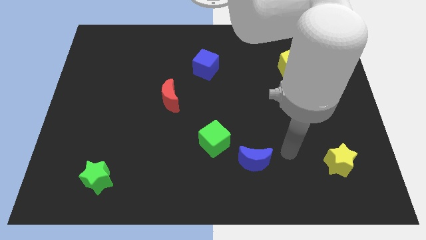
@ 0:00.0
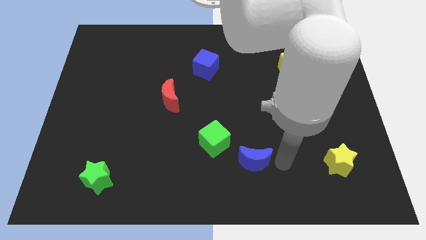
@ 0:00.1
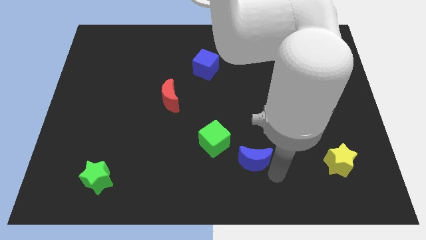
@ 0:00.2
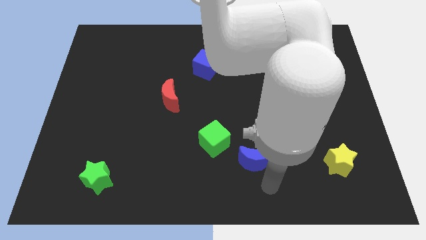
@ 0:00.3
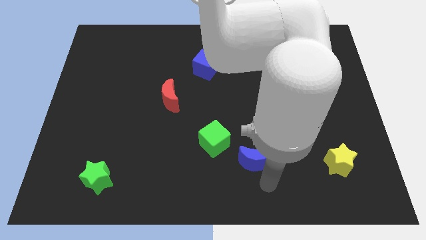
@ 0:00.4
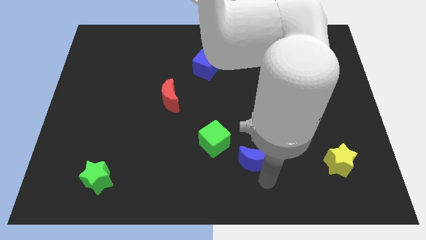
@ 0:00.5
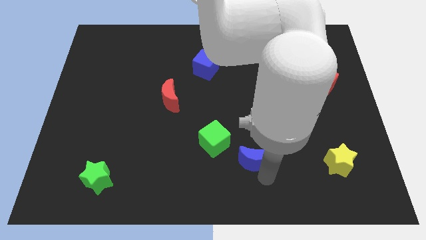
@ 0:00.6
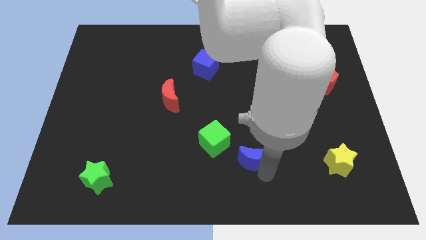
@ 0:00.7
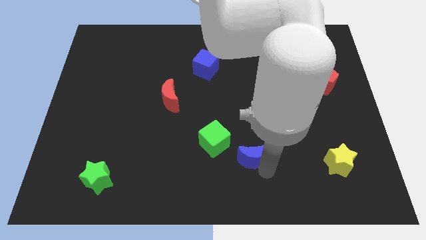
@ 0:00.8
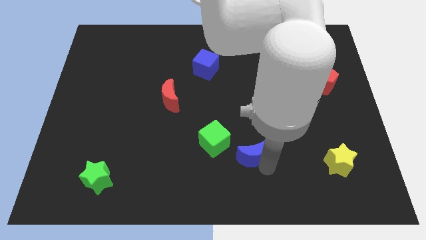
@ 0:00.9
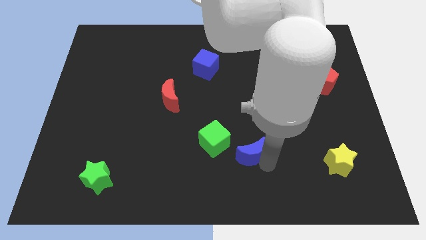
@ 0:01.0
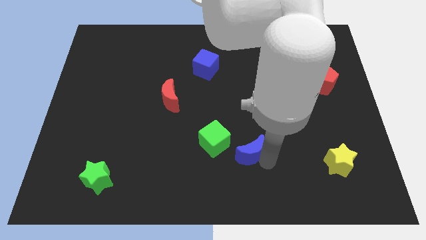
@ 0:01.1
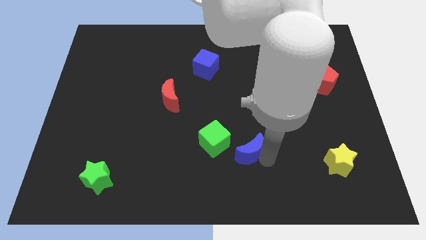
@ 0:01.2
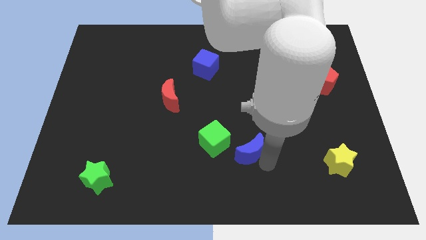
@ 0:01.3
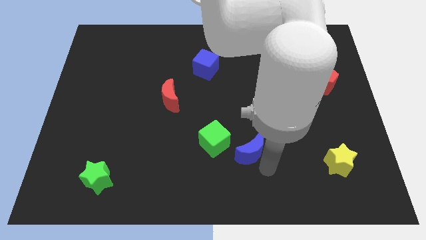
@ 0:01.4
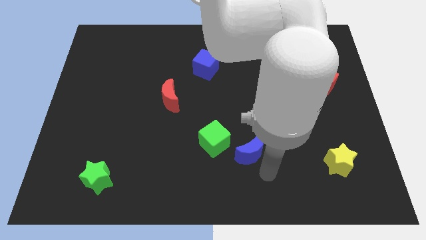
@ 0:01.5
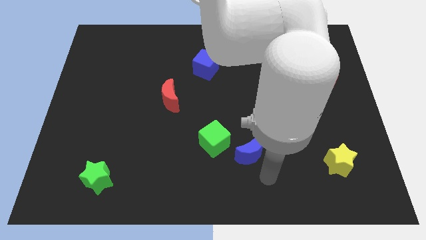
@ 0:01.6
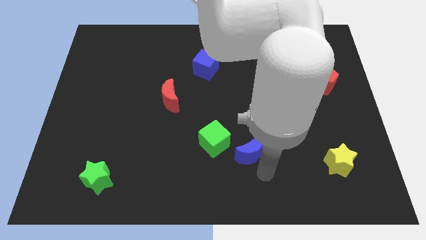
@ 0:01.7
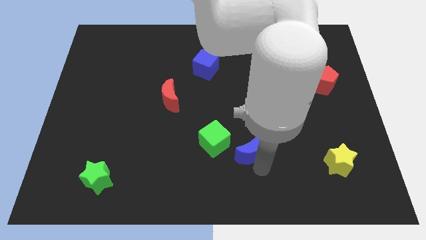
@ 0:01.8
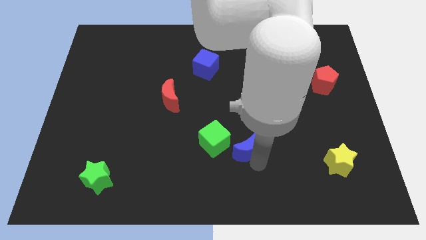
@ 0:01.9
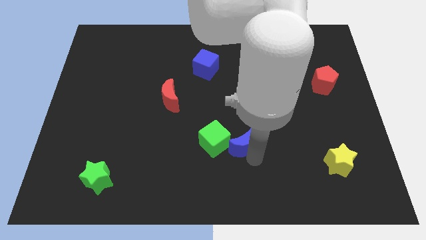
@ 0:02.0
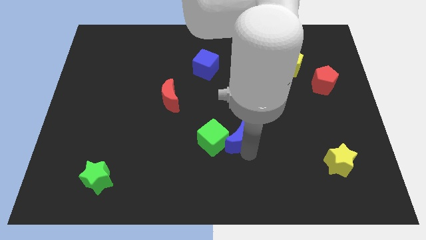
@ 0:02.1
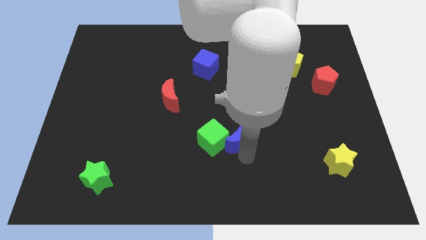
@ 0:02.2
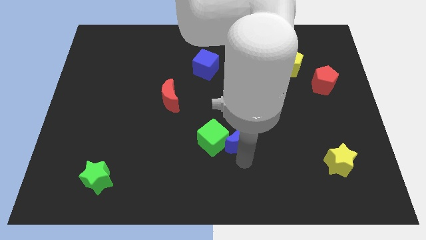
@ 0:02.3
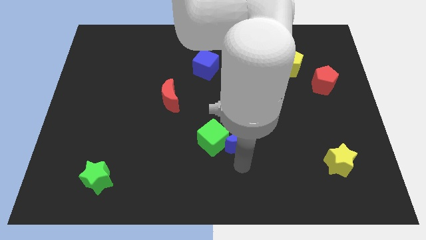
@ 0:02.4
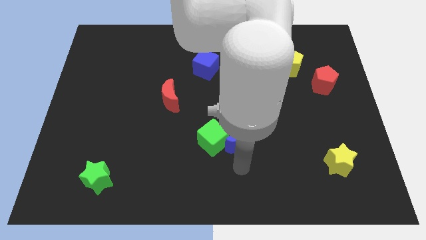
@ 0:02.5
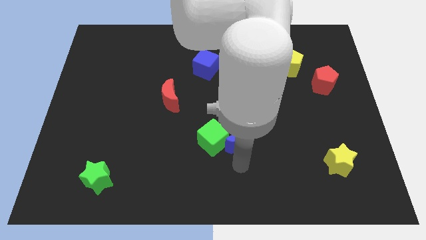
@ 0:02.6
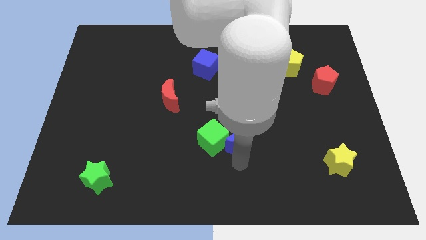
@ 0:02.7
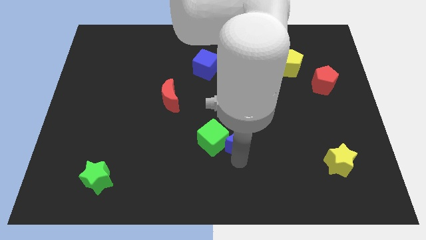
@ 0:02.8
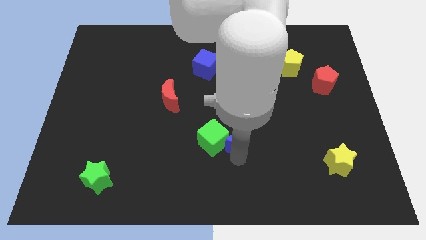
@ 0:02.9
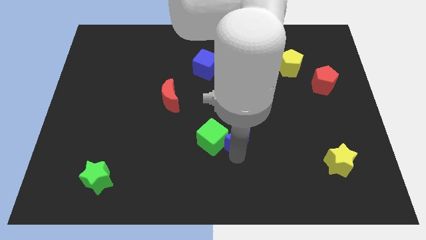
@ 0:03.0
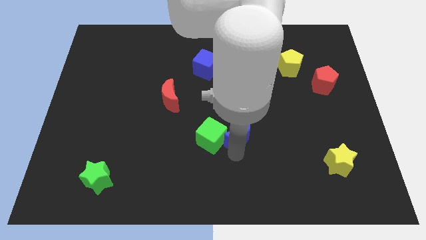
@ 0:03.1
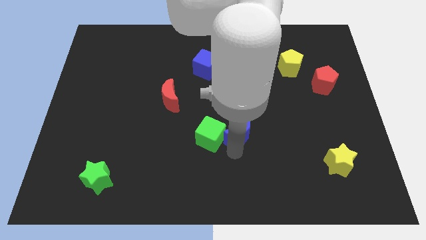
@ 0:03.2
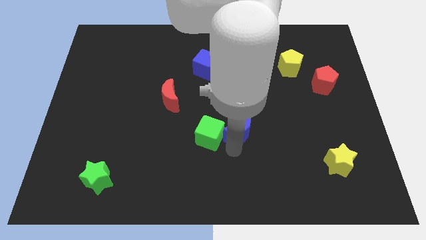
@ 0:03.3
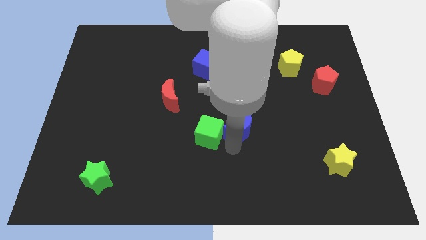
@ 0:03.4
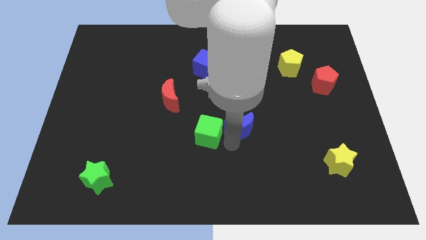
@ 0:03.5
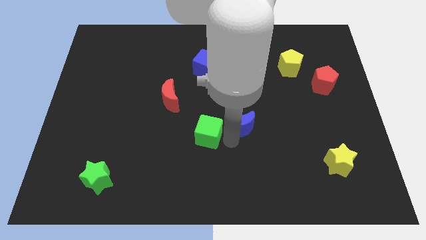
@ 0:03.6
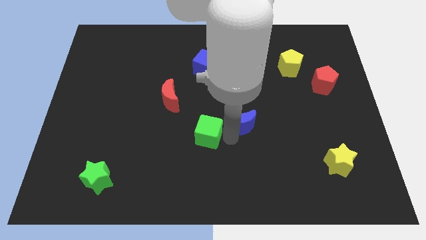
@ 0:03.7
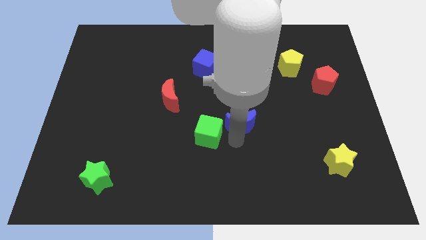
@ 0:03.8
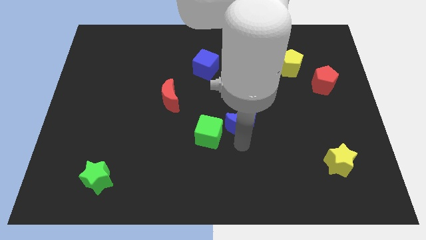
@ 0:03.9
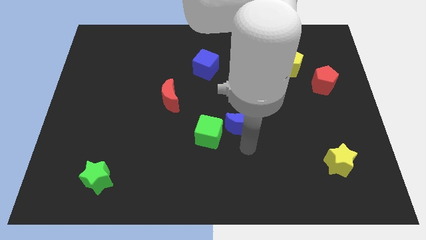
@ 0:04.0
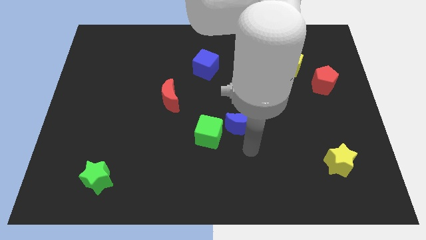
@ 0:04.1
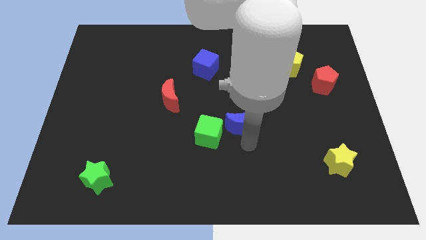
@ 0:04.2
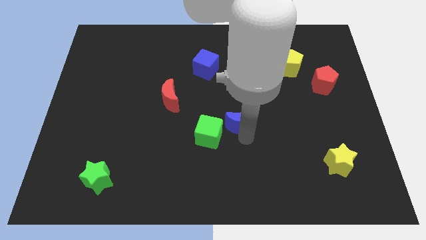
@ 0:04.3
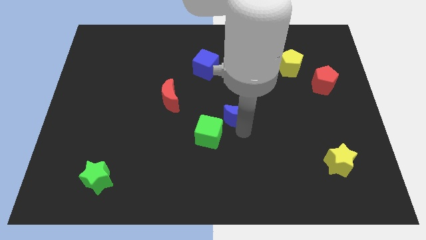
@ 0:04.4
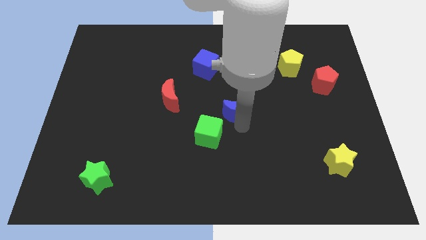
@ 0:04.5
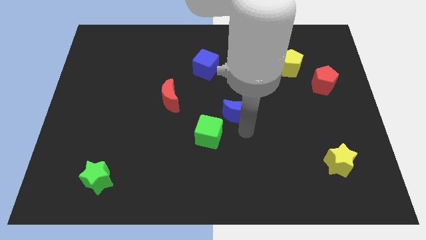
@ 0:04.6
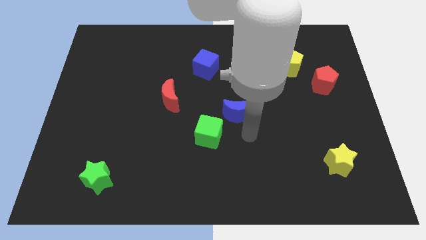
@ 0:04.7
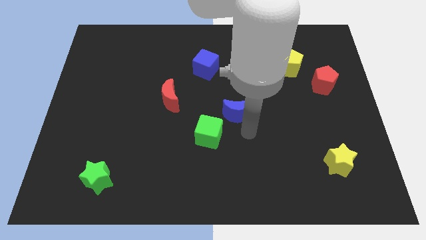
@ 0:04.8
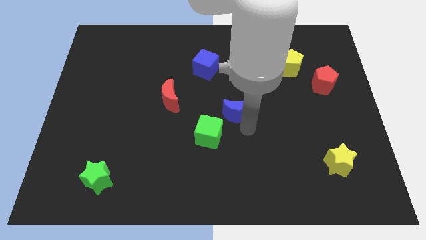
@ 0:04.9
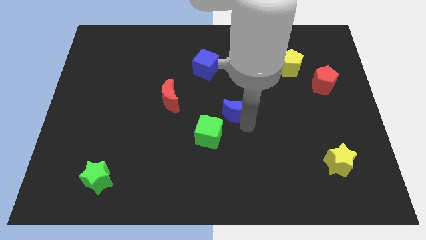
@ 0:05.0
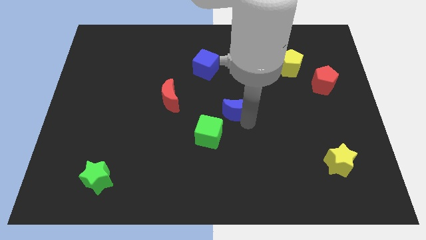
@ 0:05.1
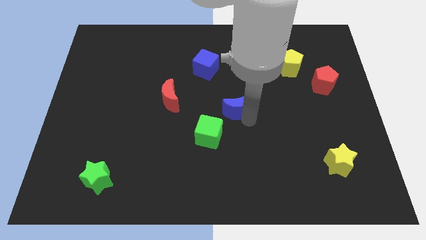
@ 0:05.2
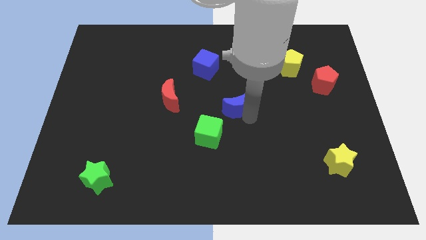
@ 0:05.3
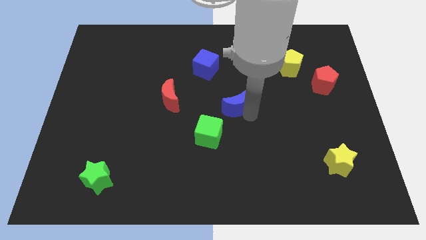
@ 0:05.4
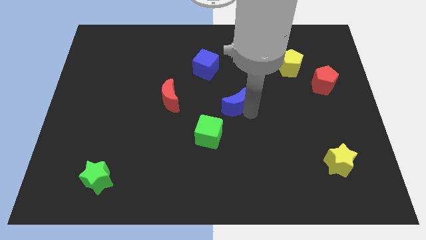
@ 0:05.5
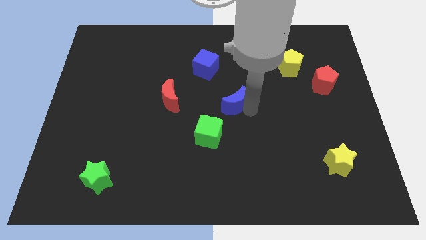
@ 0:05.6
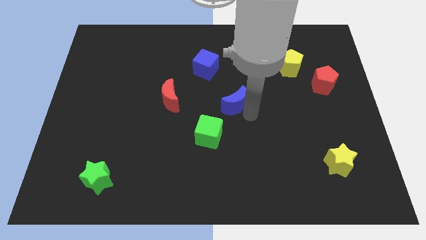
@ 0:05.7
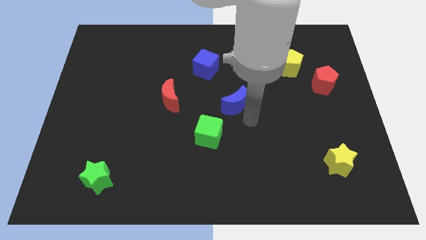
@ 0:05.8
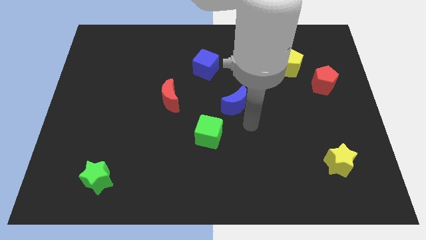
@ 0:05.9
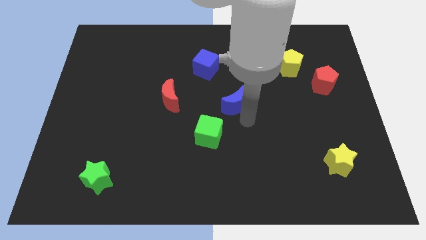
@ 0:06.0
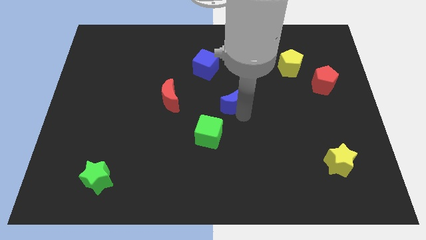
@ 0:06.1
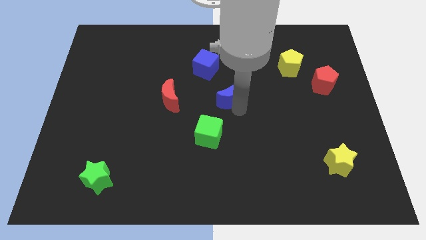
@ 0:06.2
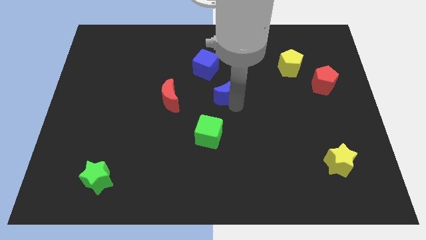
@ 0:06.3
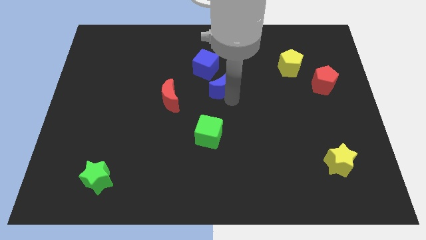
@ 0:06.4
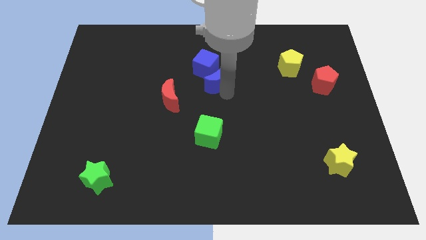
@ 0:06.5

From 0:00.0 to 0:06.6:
slide the blue moon close to the blue cube
